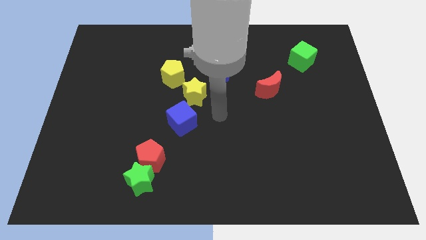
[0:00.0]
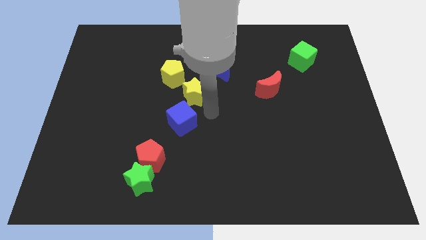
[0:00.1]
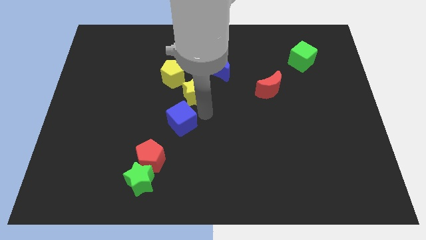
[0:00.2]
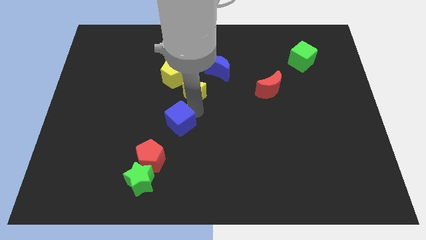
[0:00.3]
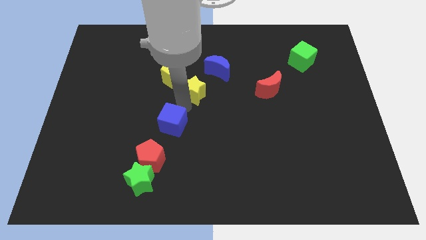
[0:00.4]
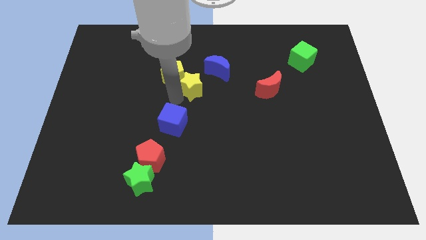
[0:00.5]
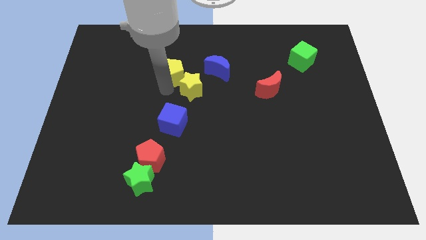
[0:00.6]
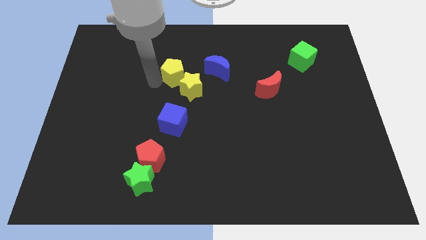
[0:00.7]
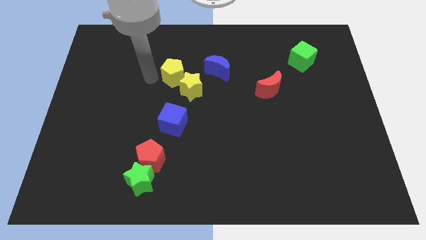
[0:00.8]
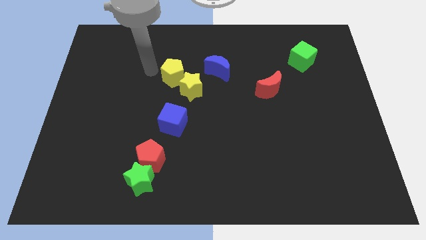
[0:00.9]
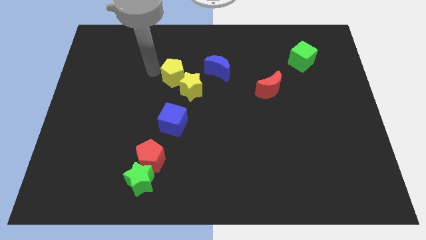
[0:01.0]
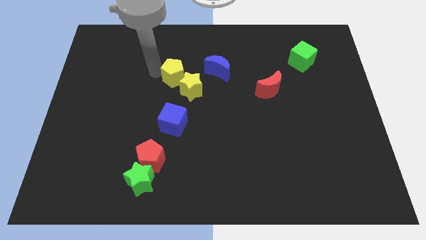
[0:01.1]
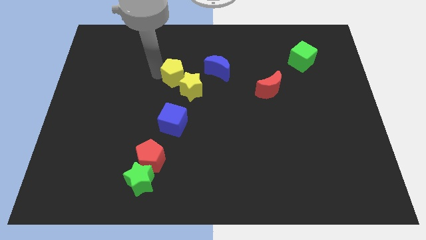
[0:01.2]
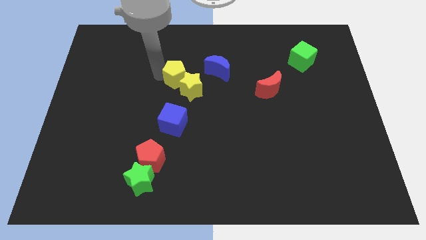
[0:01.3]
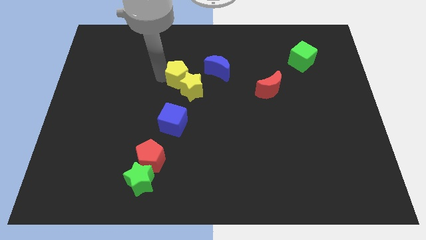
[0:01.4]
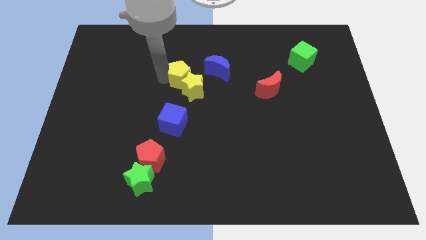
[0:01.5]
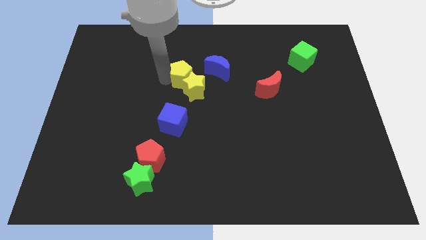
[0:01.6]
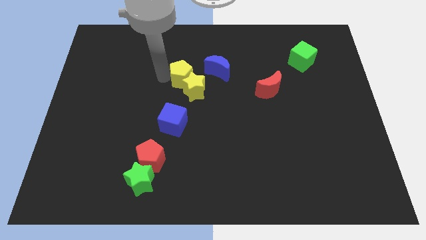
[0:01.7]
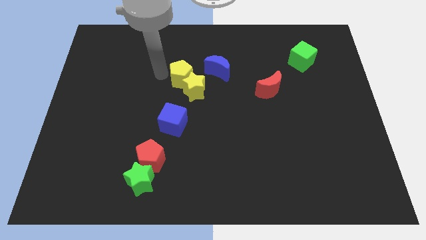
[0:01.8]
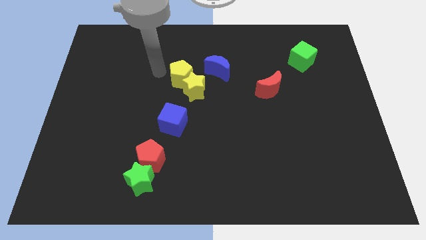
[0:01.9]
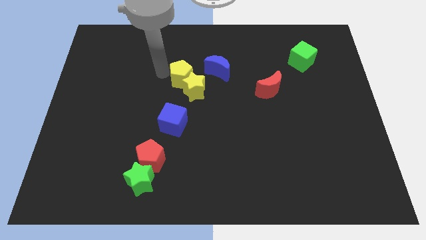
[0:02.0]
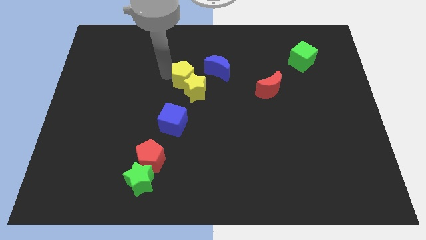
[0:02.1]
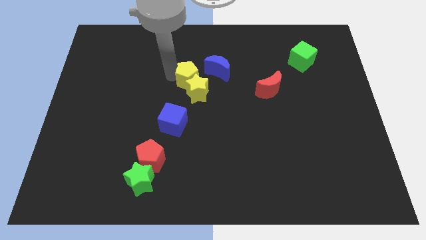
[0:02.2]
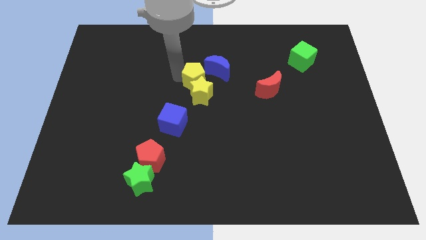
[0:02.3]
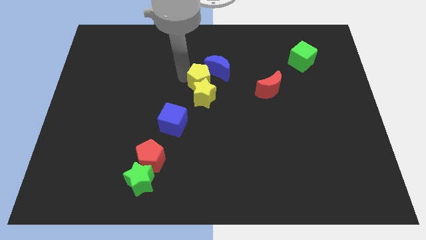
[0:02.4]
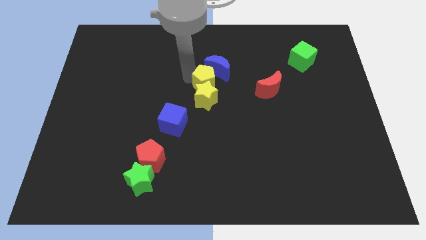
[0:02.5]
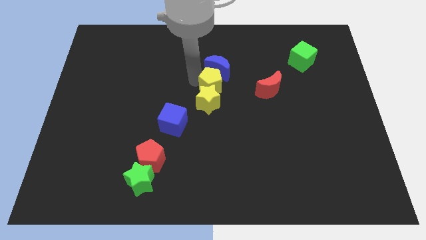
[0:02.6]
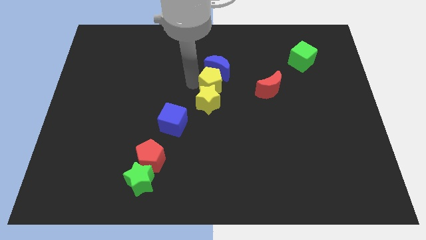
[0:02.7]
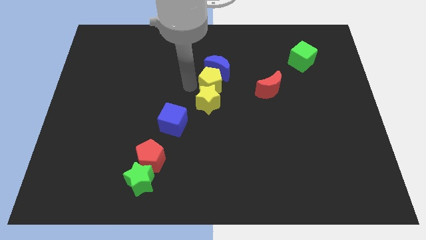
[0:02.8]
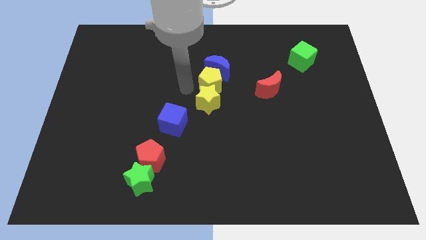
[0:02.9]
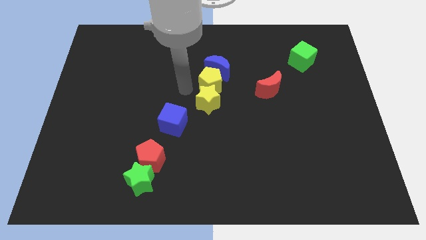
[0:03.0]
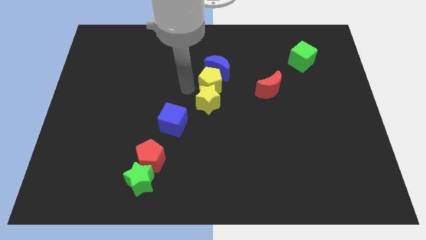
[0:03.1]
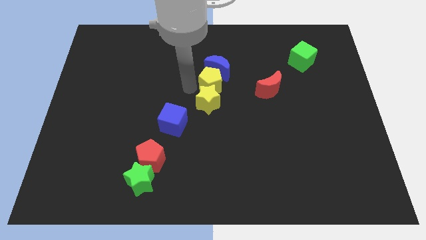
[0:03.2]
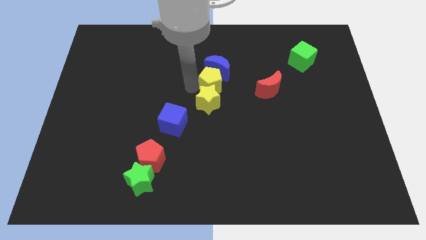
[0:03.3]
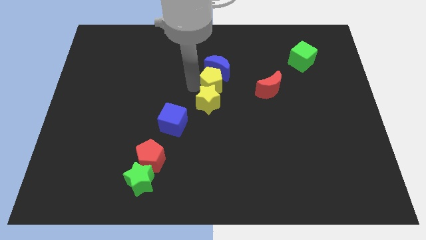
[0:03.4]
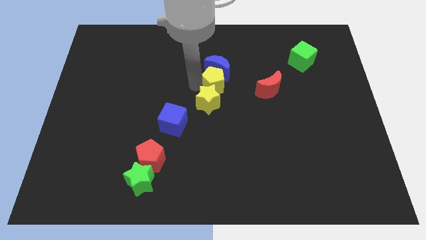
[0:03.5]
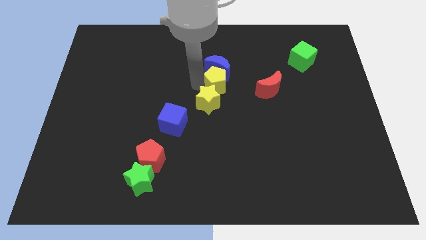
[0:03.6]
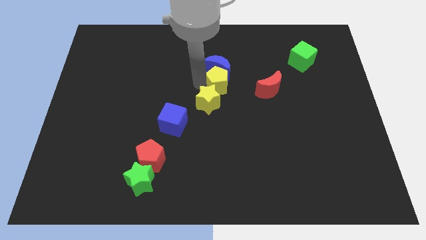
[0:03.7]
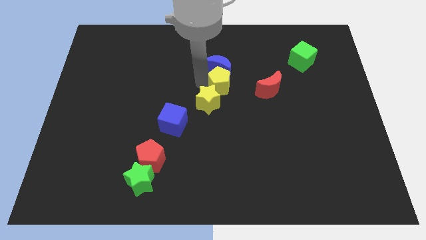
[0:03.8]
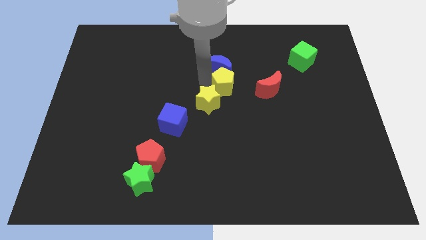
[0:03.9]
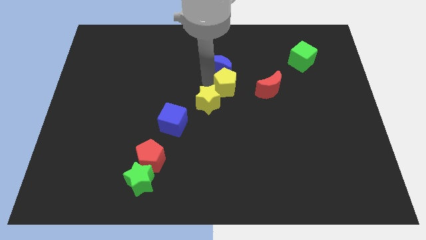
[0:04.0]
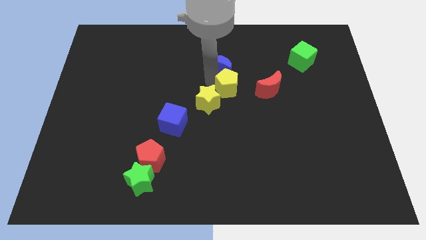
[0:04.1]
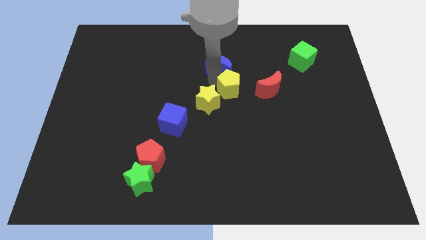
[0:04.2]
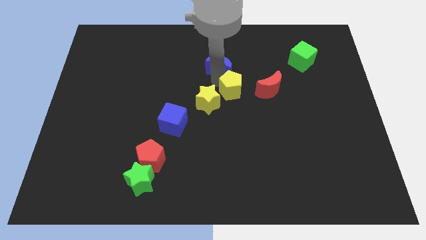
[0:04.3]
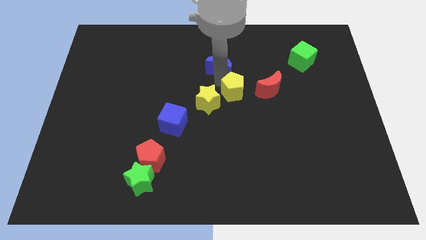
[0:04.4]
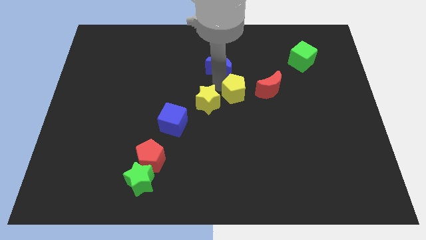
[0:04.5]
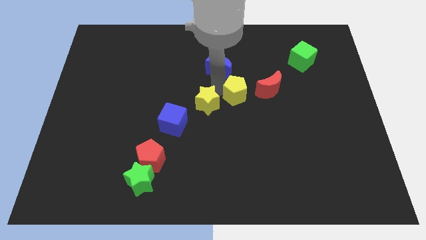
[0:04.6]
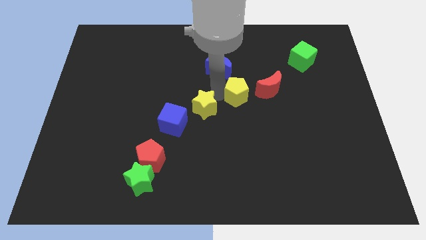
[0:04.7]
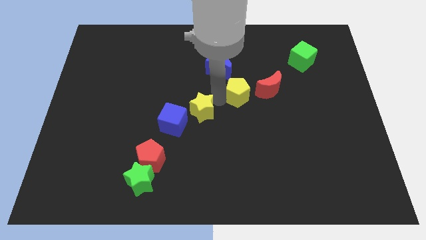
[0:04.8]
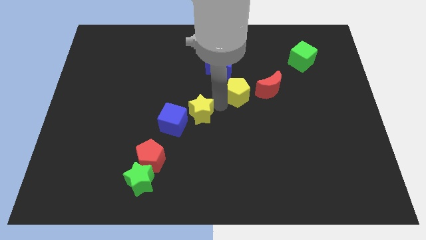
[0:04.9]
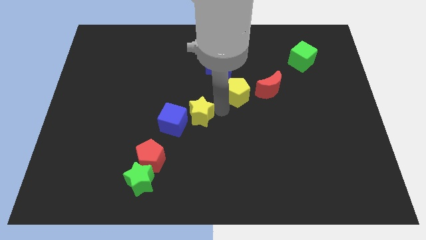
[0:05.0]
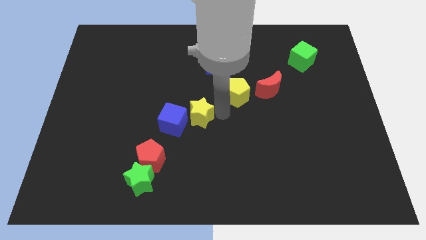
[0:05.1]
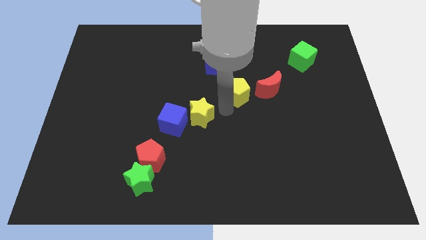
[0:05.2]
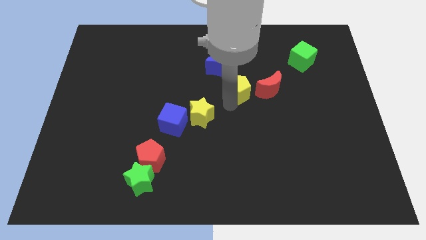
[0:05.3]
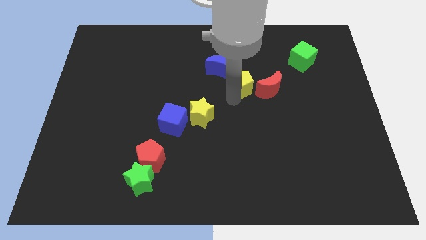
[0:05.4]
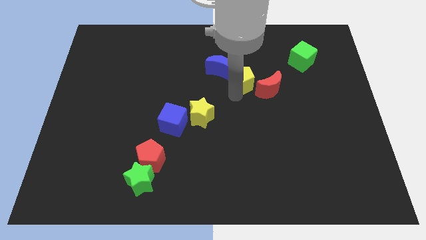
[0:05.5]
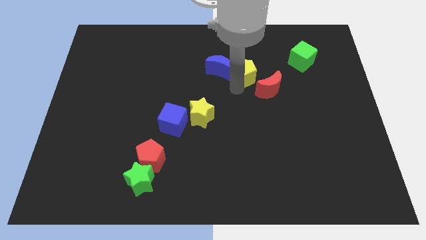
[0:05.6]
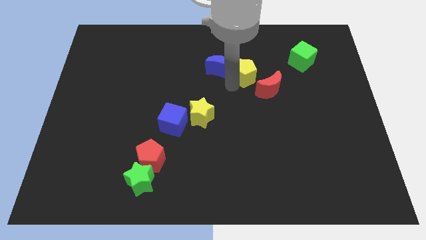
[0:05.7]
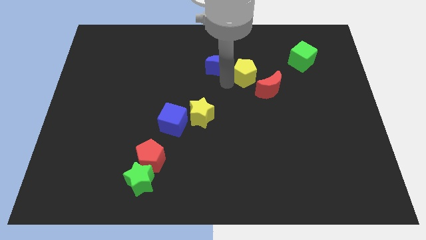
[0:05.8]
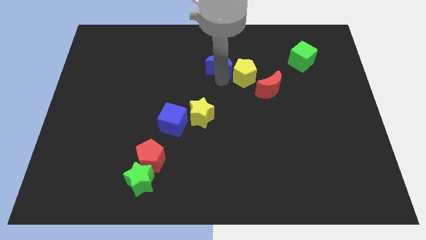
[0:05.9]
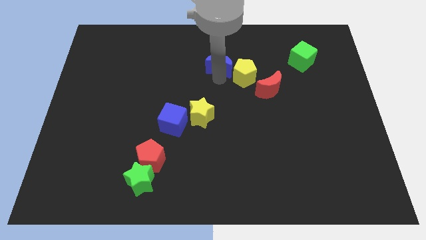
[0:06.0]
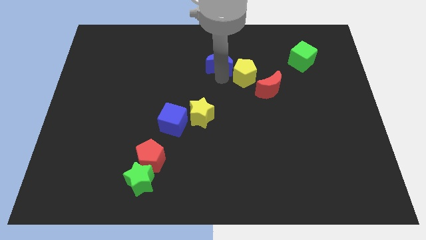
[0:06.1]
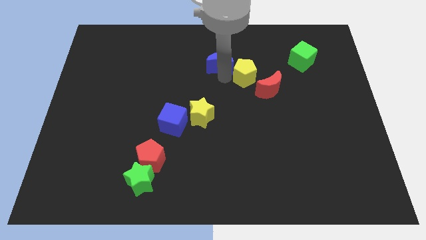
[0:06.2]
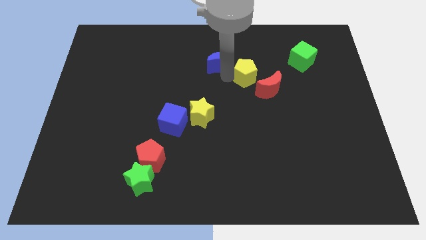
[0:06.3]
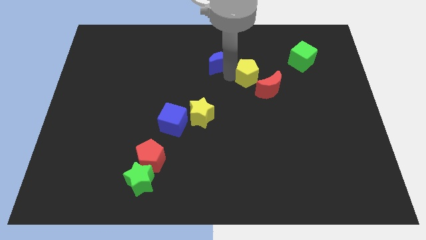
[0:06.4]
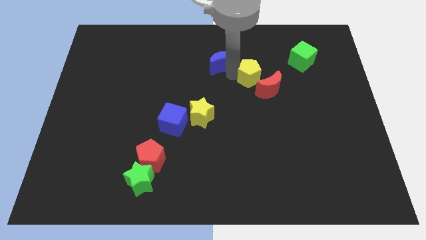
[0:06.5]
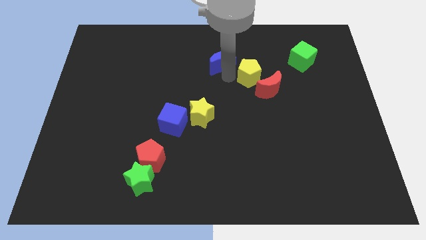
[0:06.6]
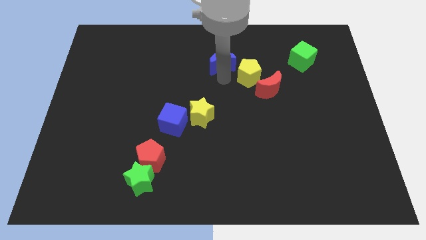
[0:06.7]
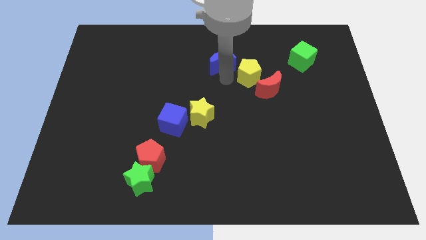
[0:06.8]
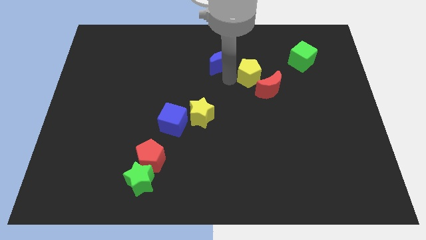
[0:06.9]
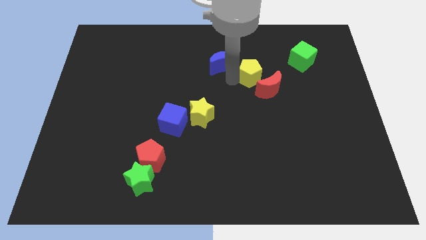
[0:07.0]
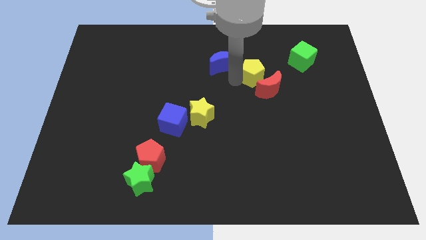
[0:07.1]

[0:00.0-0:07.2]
slide the yellow pentagon right

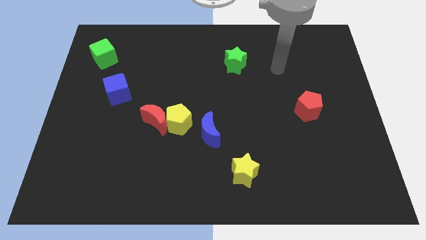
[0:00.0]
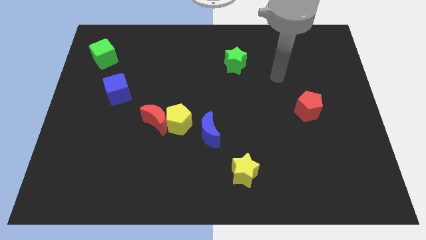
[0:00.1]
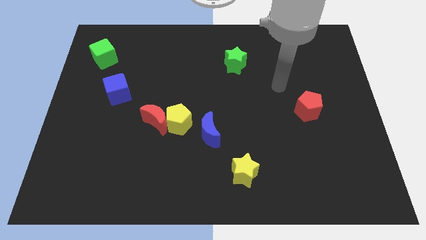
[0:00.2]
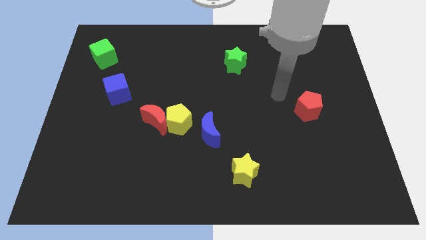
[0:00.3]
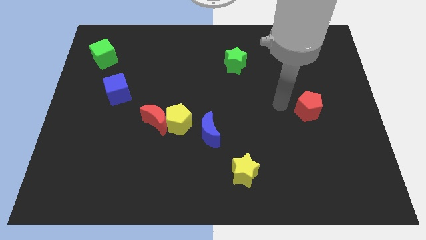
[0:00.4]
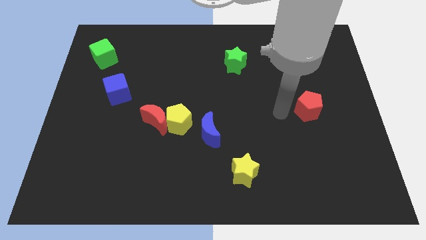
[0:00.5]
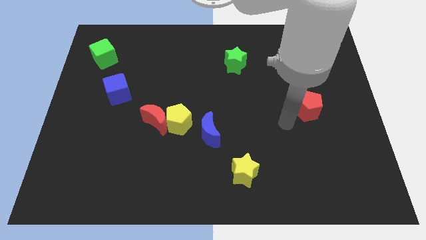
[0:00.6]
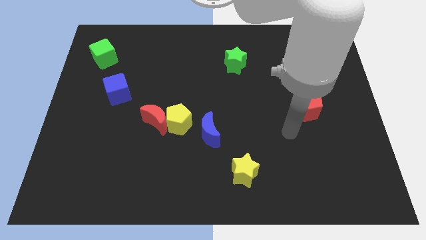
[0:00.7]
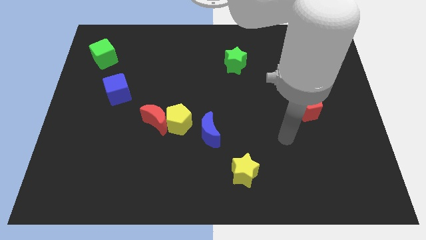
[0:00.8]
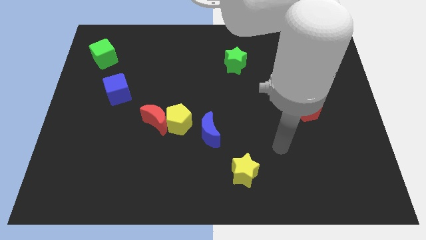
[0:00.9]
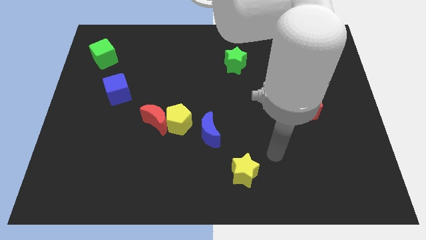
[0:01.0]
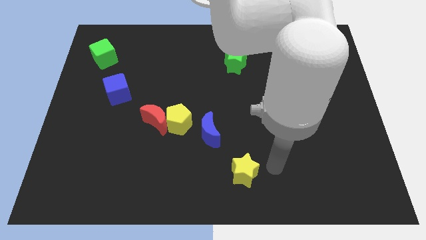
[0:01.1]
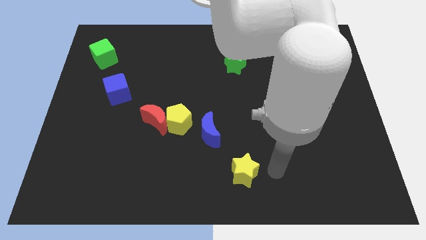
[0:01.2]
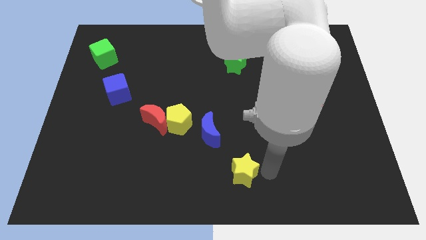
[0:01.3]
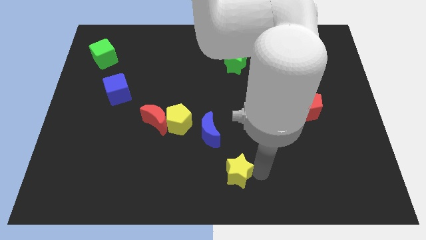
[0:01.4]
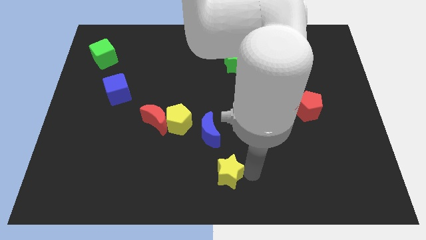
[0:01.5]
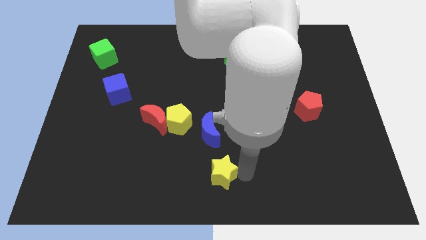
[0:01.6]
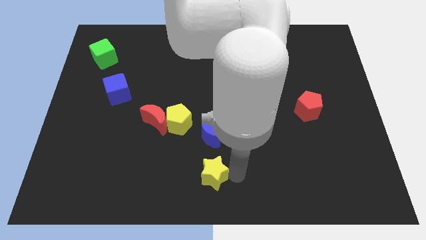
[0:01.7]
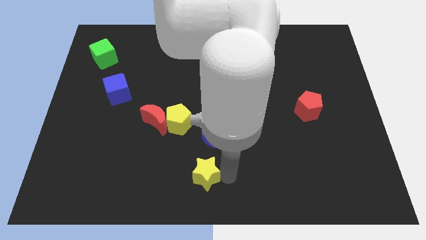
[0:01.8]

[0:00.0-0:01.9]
slightly slide the yellow star left
